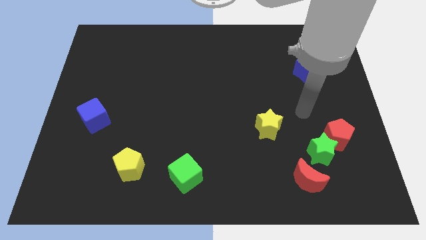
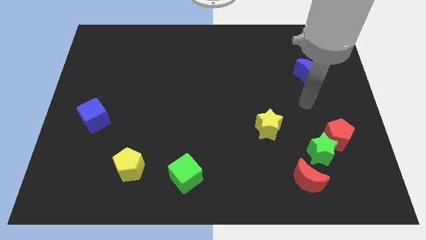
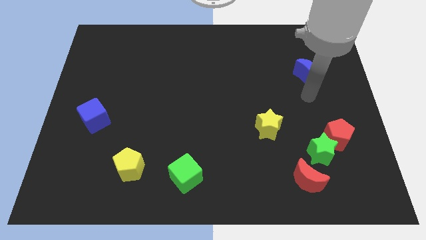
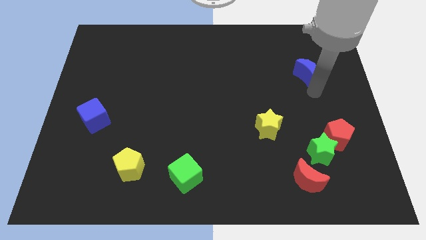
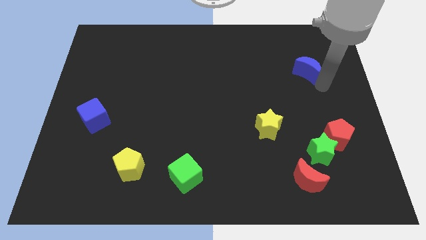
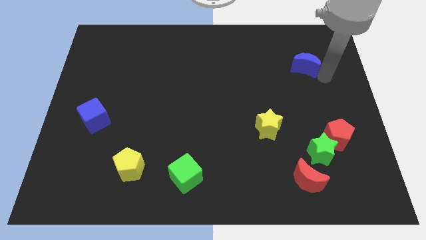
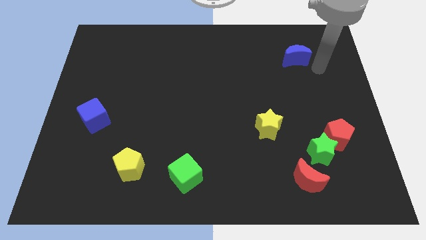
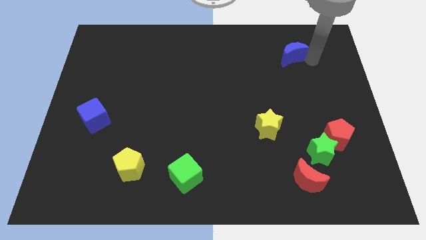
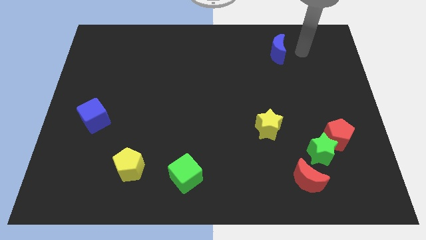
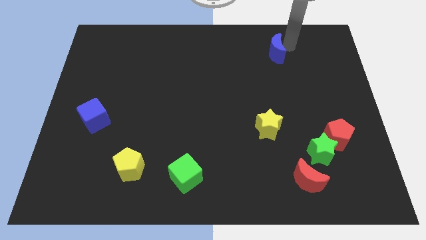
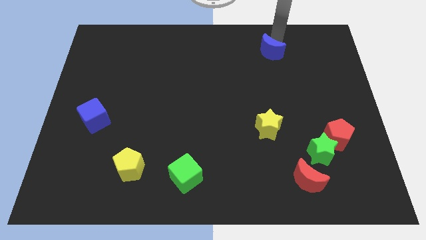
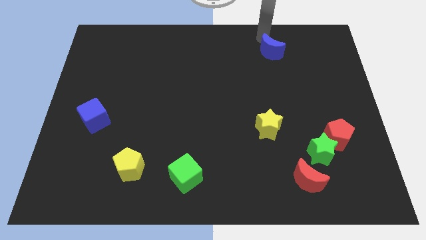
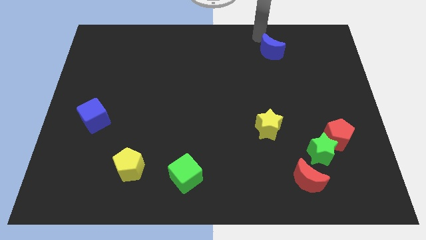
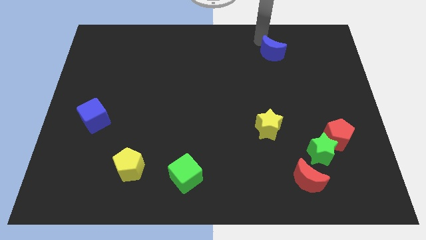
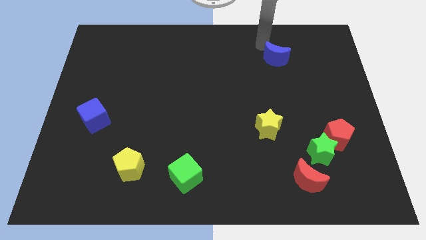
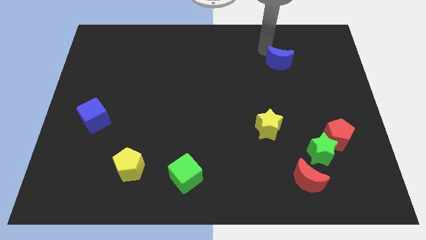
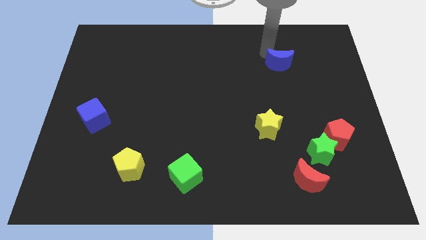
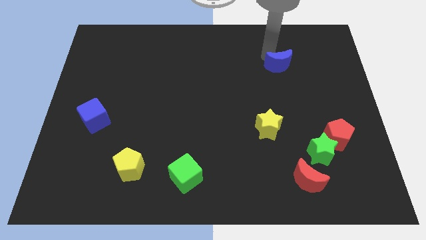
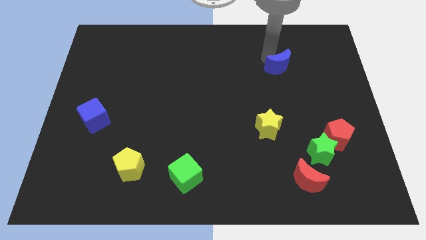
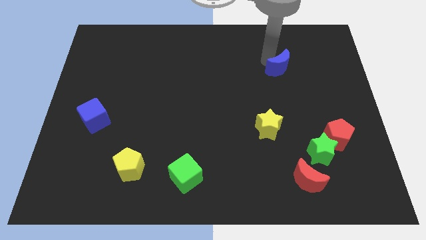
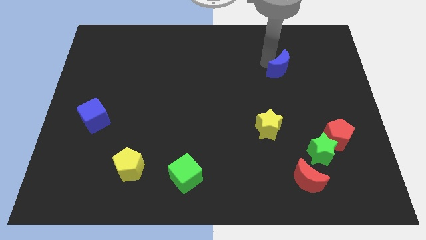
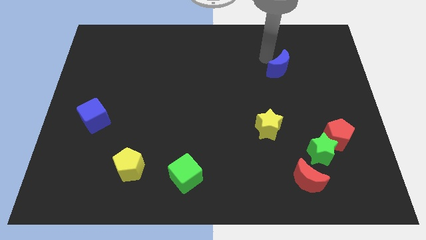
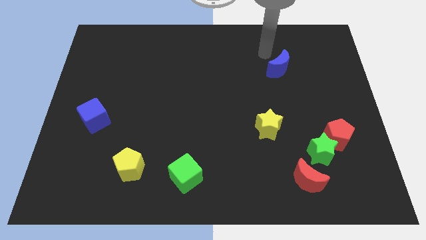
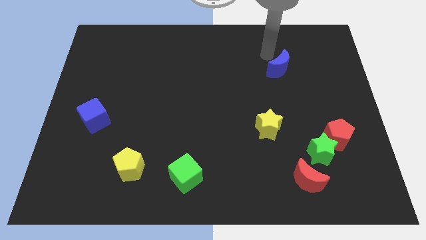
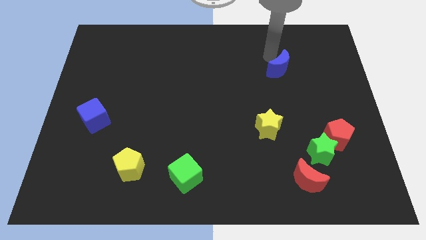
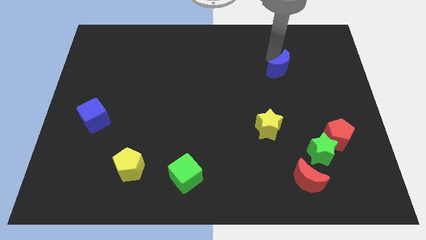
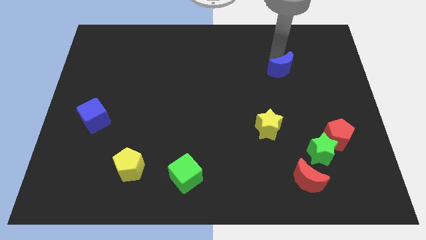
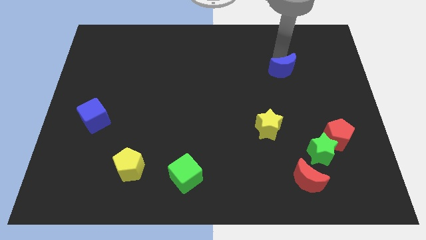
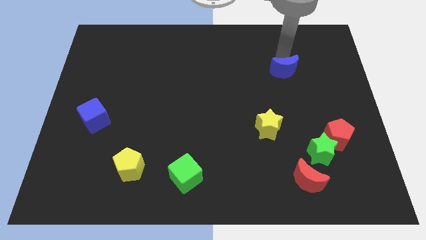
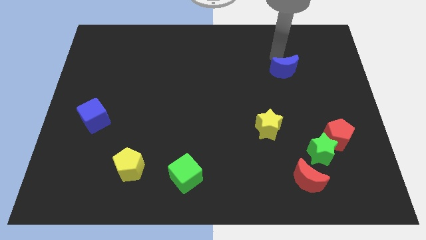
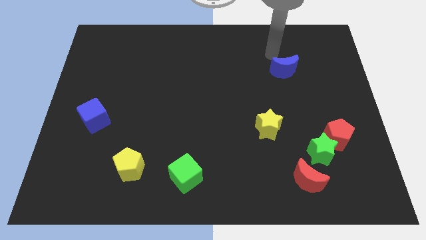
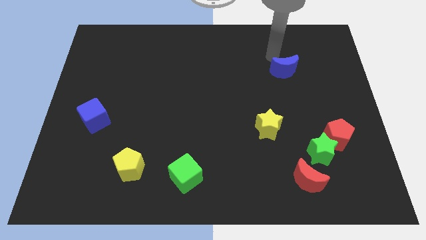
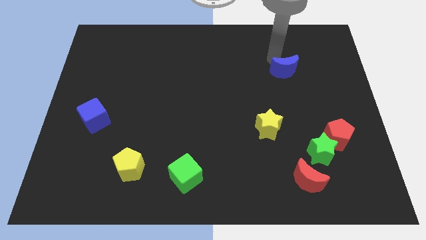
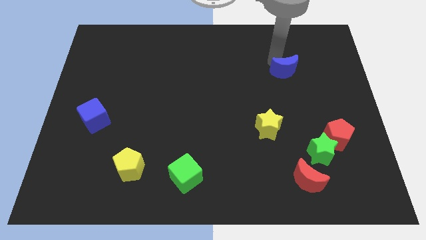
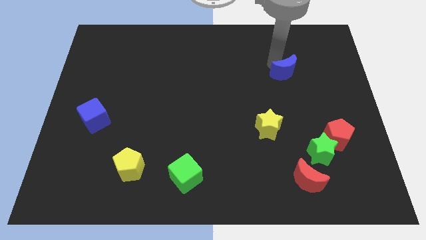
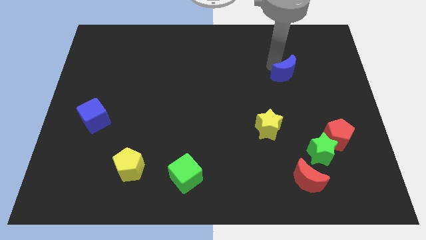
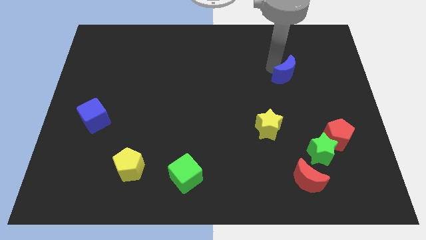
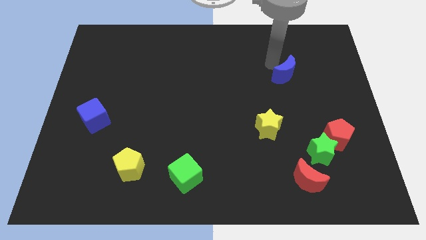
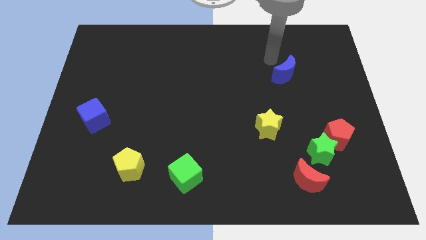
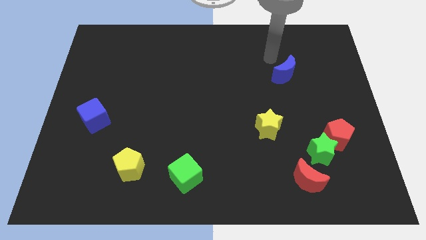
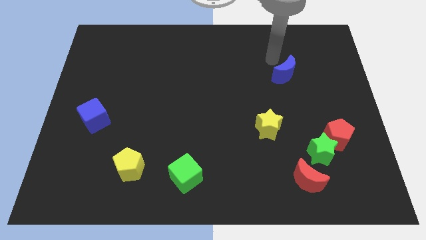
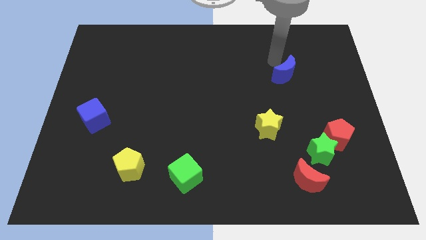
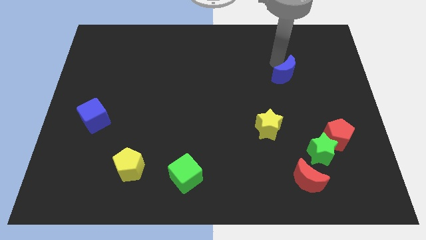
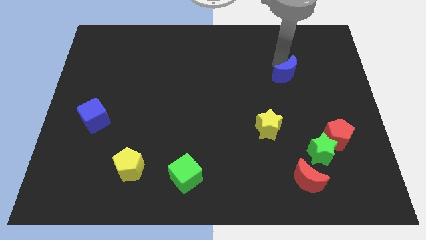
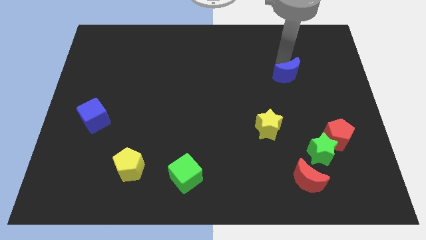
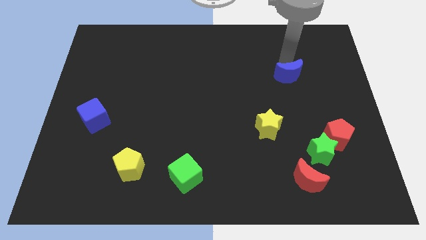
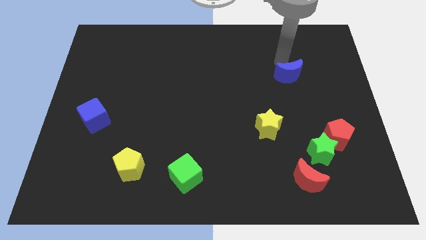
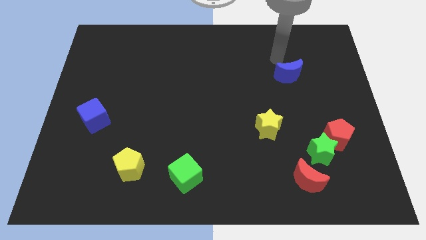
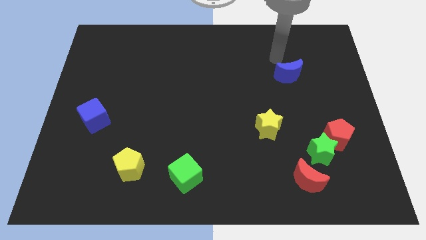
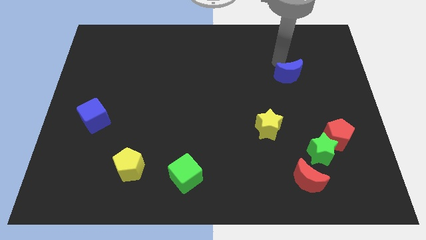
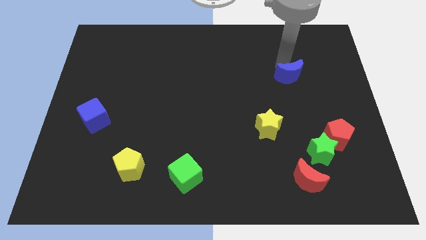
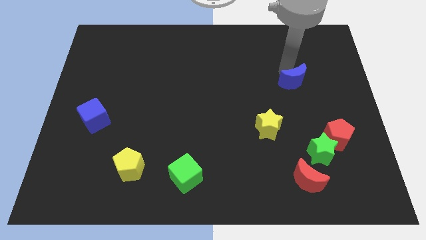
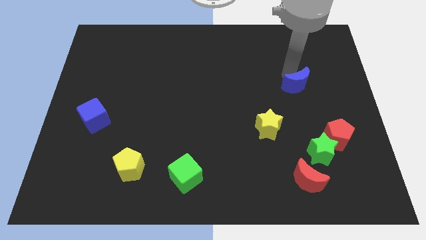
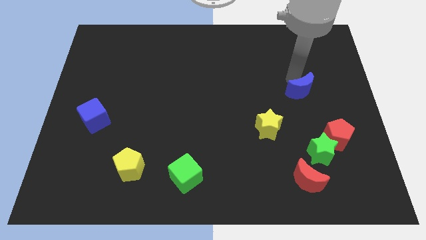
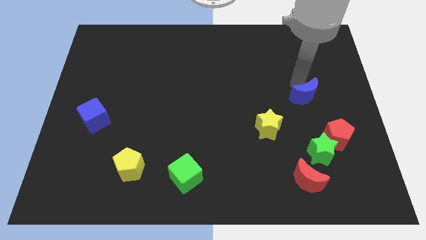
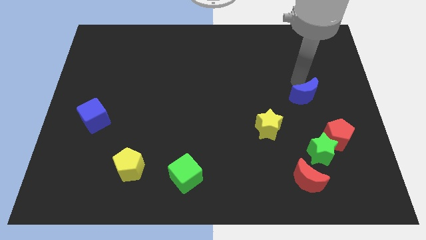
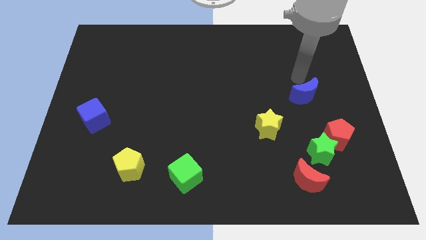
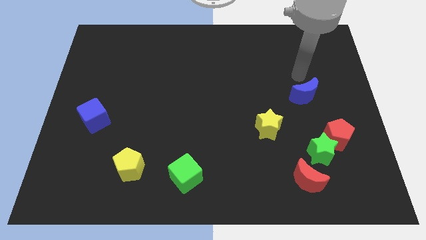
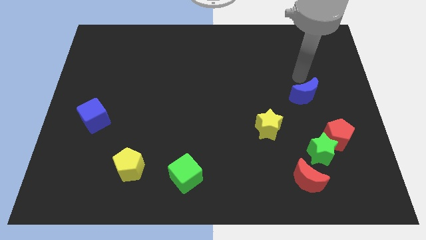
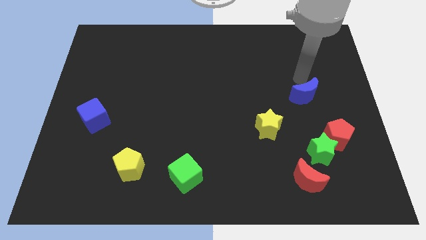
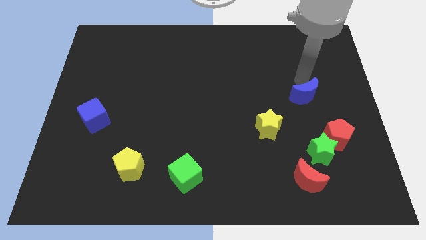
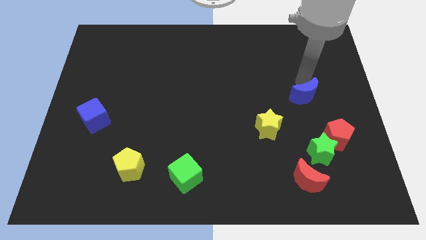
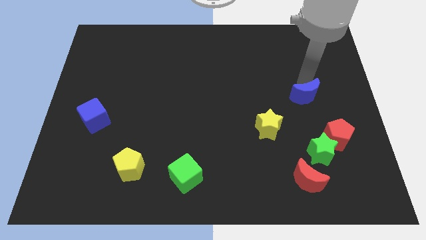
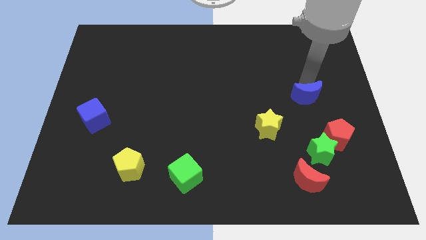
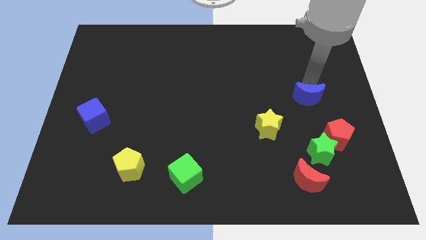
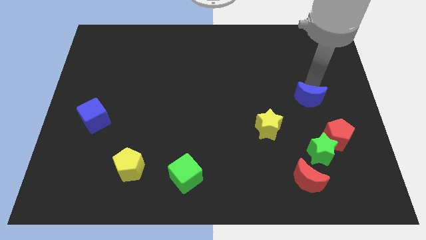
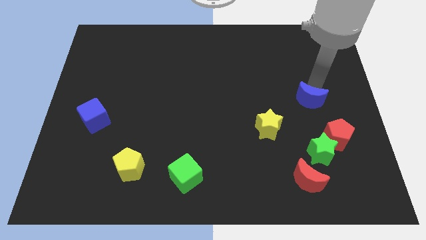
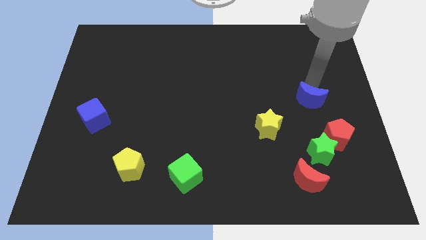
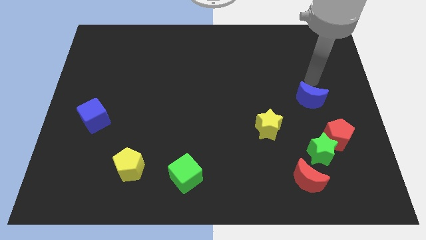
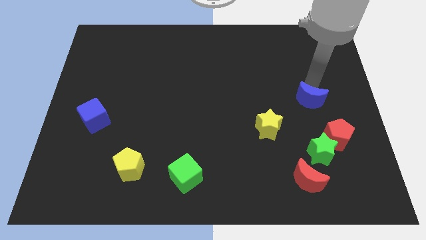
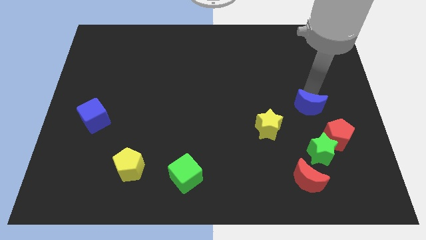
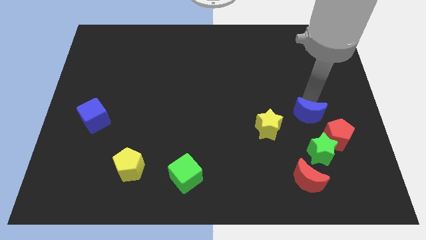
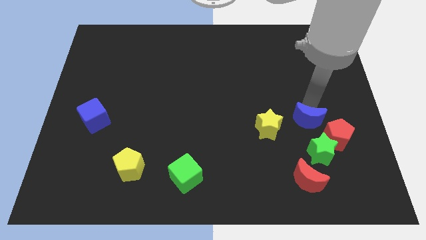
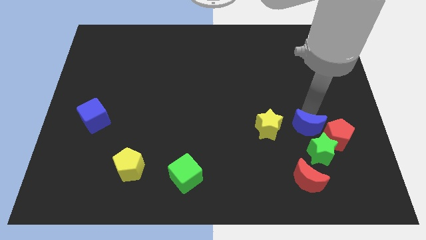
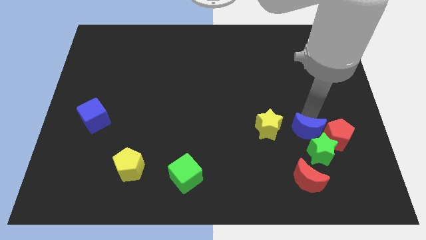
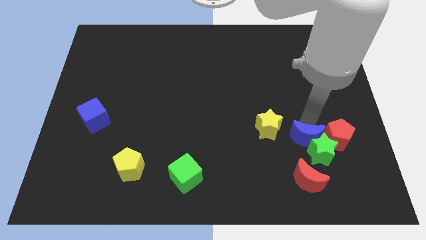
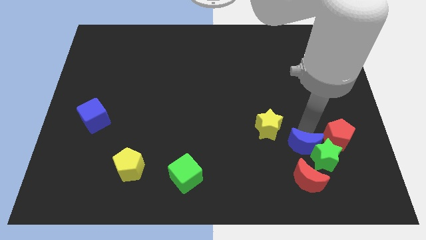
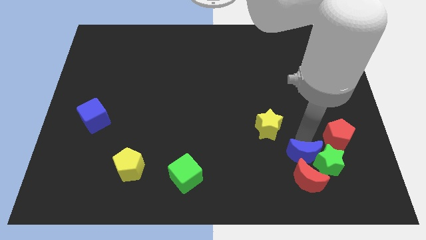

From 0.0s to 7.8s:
push the blue moon close to the red moon
